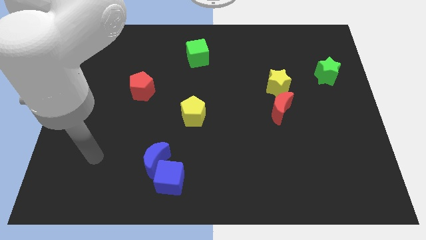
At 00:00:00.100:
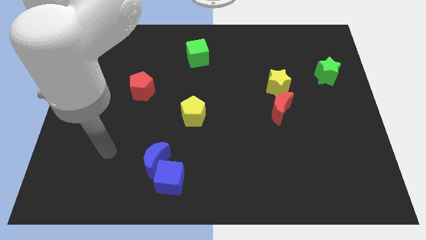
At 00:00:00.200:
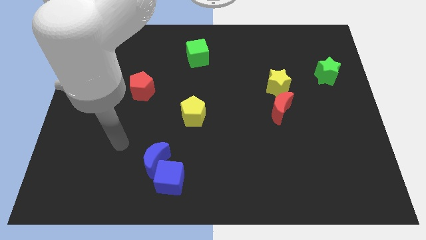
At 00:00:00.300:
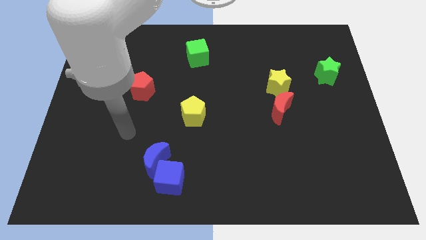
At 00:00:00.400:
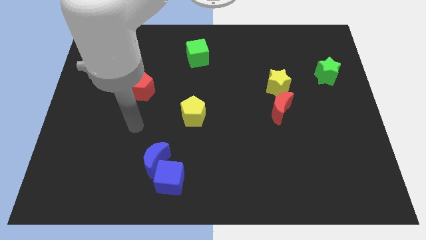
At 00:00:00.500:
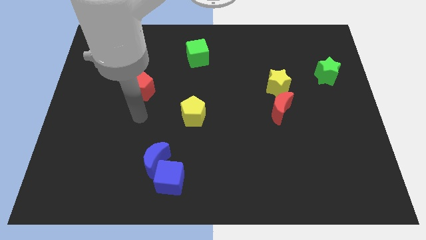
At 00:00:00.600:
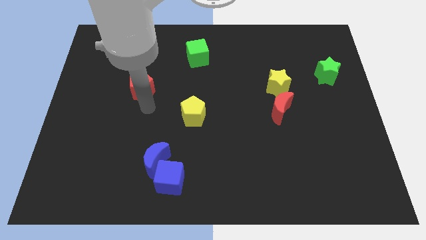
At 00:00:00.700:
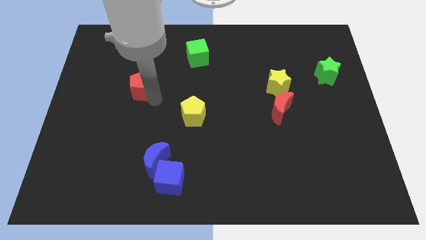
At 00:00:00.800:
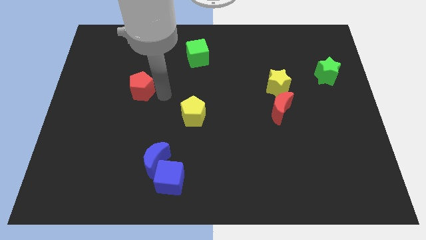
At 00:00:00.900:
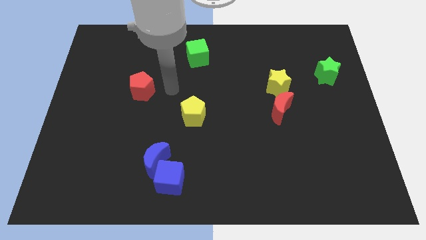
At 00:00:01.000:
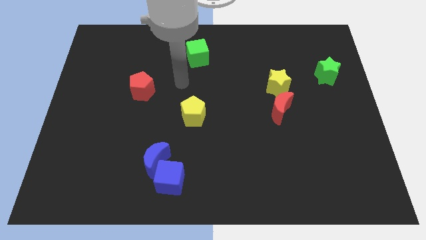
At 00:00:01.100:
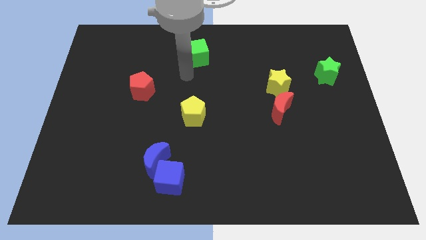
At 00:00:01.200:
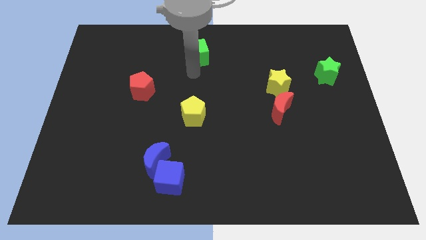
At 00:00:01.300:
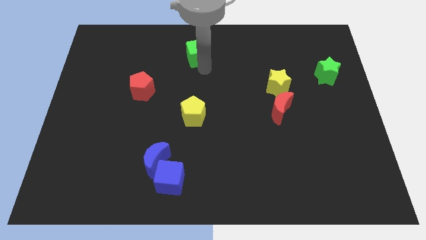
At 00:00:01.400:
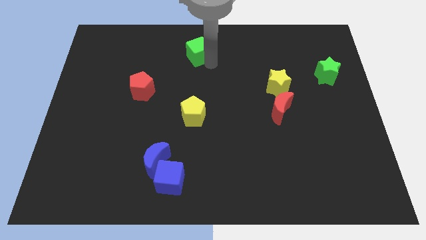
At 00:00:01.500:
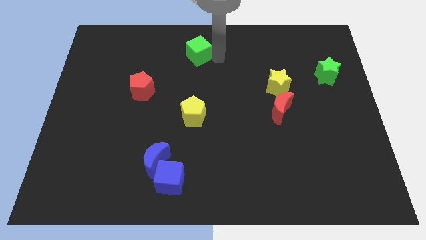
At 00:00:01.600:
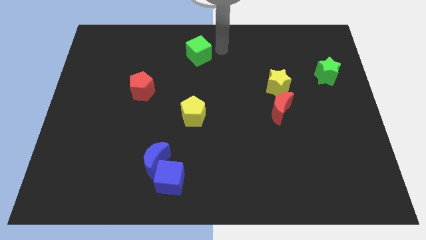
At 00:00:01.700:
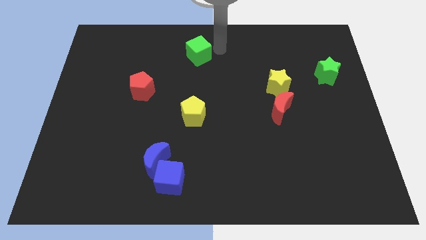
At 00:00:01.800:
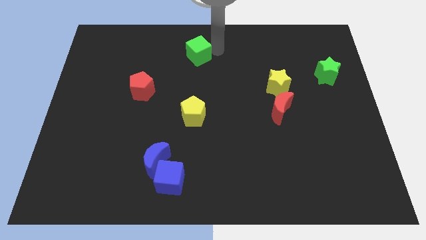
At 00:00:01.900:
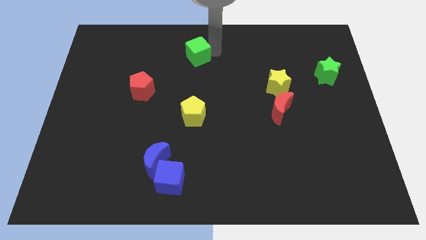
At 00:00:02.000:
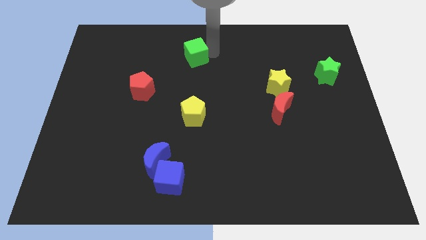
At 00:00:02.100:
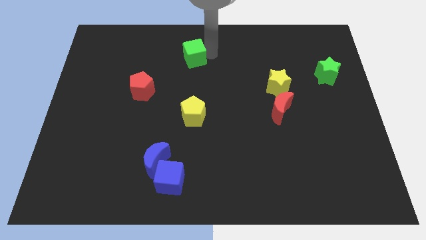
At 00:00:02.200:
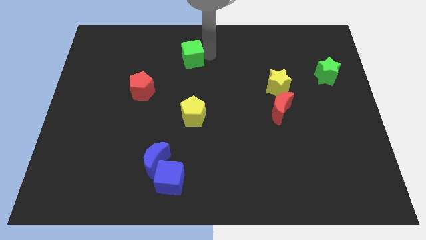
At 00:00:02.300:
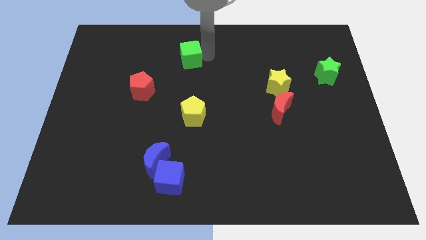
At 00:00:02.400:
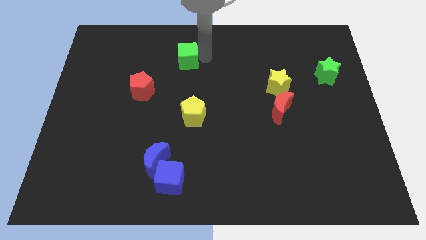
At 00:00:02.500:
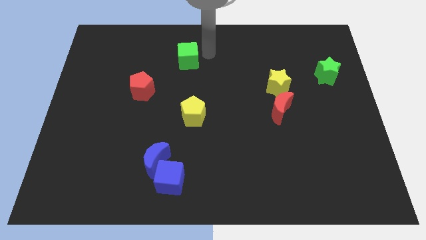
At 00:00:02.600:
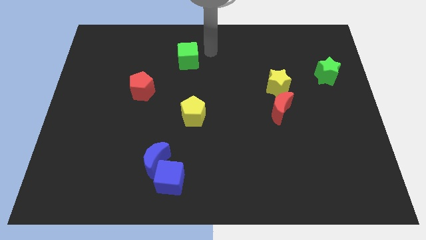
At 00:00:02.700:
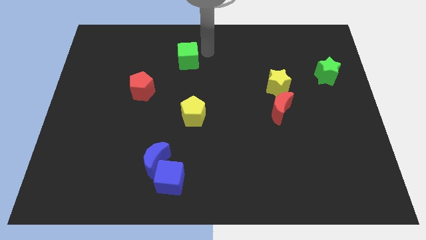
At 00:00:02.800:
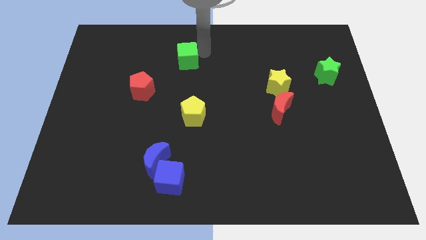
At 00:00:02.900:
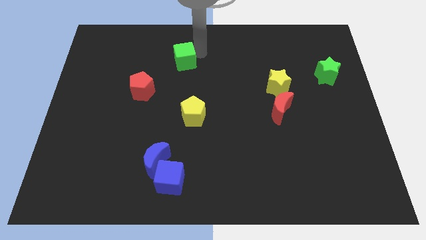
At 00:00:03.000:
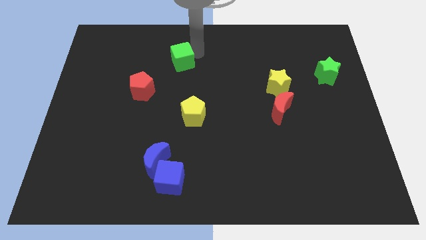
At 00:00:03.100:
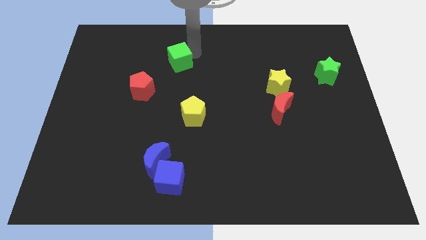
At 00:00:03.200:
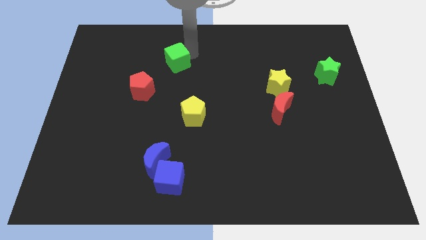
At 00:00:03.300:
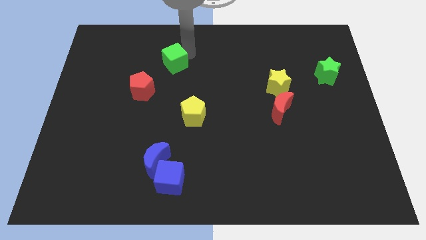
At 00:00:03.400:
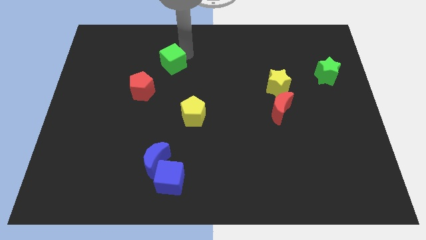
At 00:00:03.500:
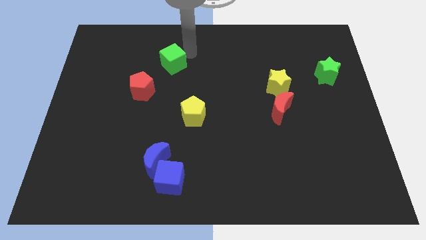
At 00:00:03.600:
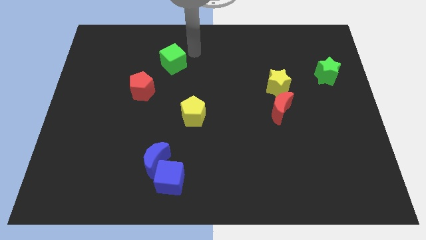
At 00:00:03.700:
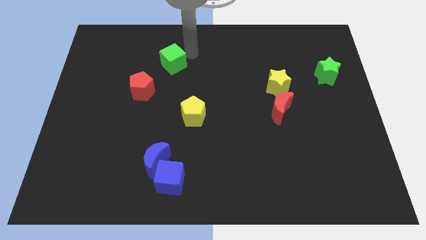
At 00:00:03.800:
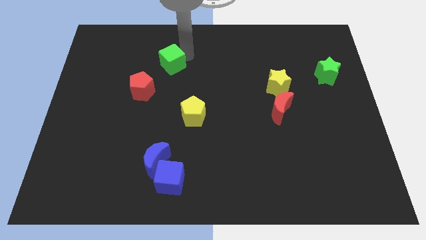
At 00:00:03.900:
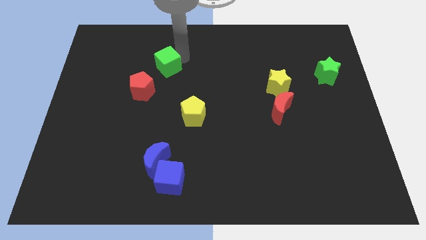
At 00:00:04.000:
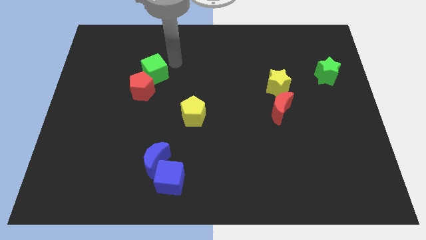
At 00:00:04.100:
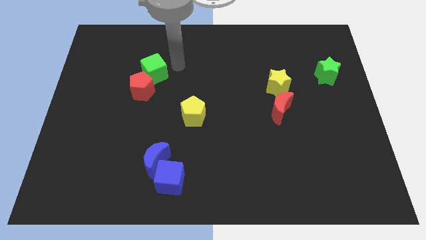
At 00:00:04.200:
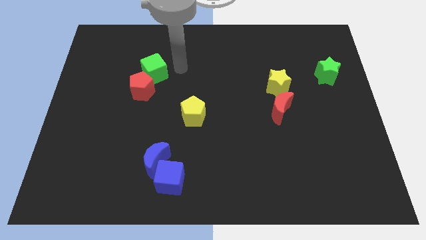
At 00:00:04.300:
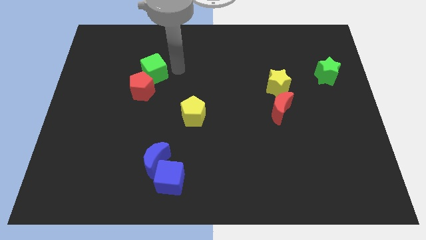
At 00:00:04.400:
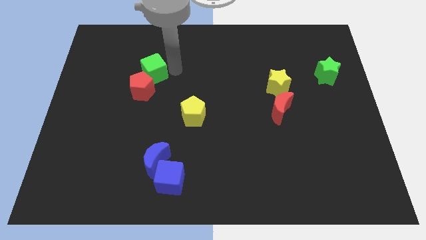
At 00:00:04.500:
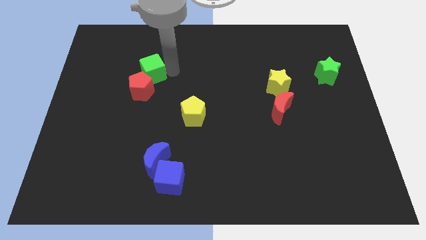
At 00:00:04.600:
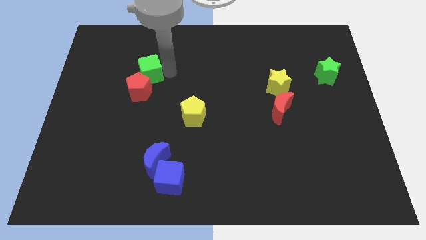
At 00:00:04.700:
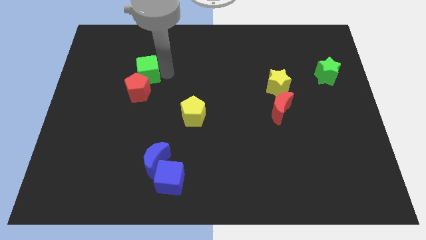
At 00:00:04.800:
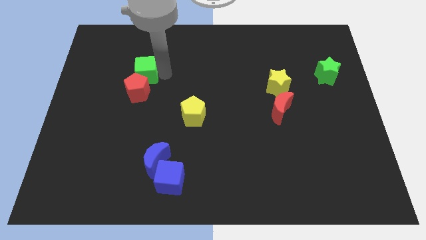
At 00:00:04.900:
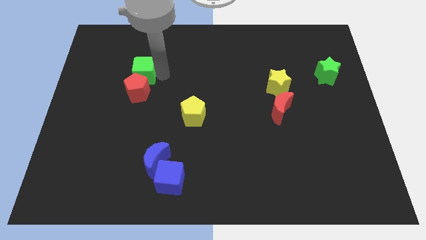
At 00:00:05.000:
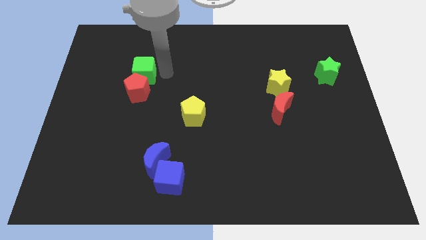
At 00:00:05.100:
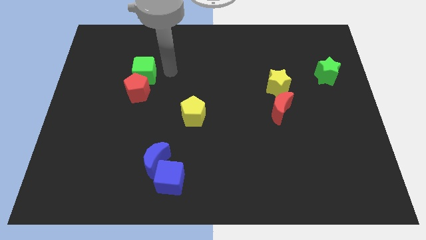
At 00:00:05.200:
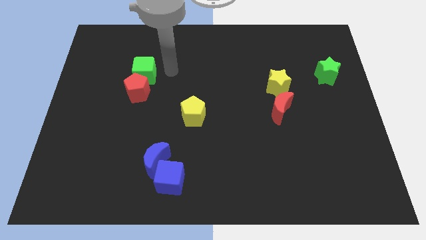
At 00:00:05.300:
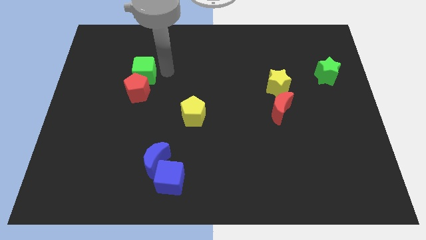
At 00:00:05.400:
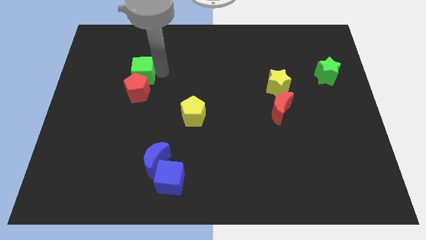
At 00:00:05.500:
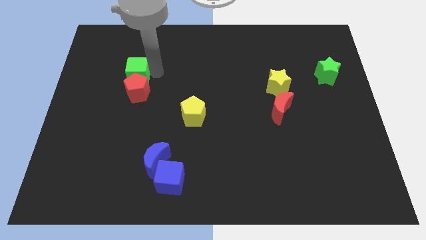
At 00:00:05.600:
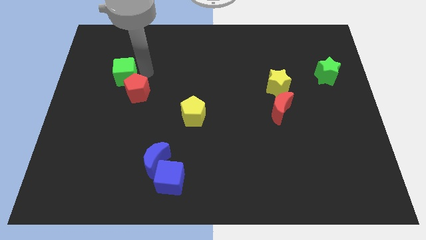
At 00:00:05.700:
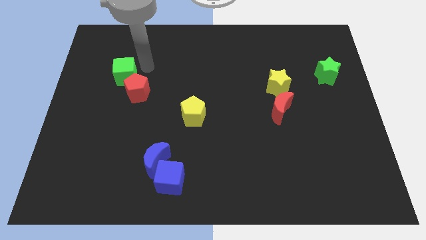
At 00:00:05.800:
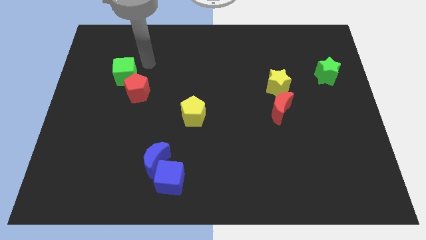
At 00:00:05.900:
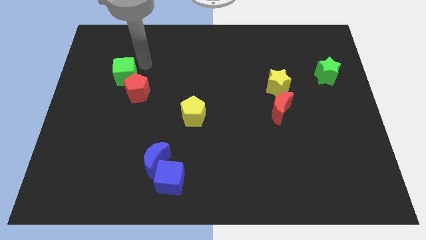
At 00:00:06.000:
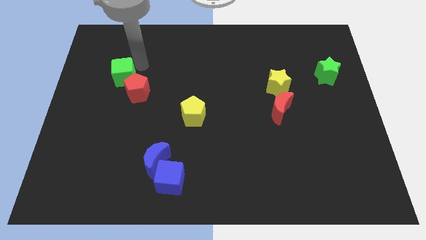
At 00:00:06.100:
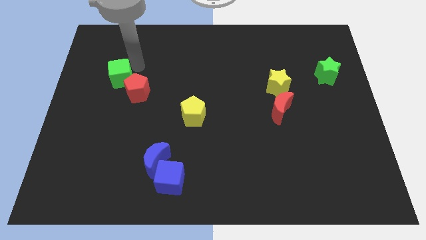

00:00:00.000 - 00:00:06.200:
push the green cube left of the red pentagon

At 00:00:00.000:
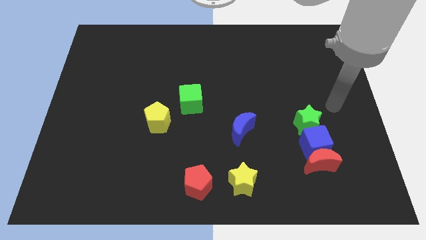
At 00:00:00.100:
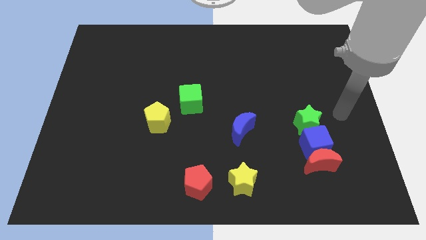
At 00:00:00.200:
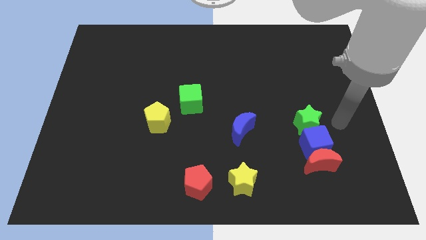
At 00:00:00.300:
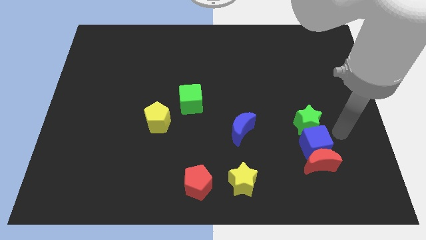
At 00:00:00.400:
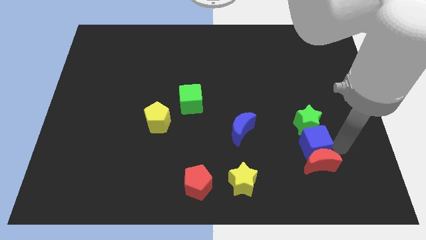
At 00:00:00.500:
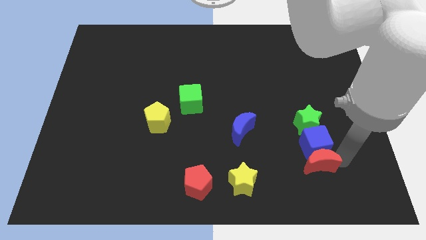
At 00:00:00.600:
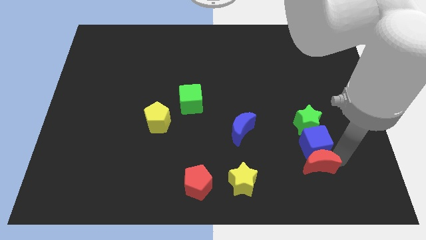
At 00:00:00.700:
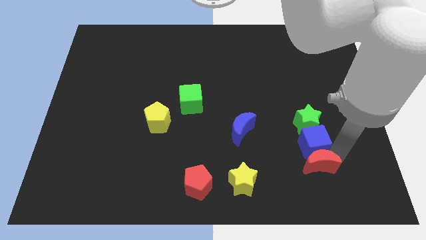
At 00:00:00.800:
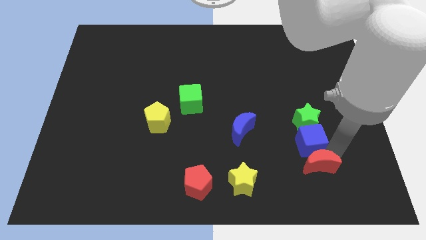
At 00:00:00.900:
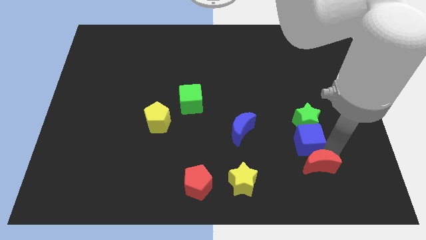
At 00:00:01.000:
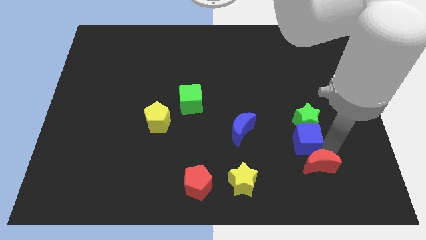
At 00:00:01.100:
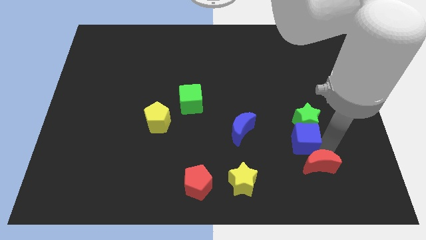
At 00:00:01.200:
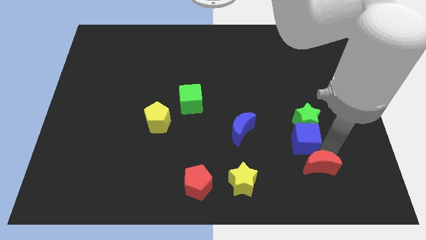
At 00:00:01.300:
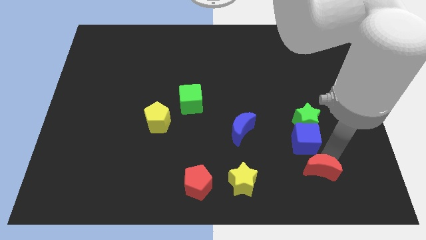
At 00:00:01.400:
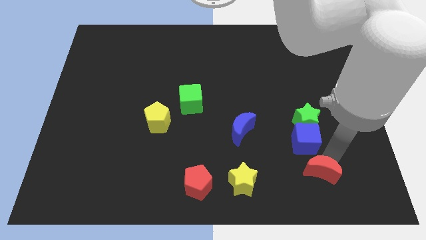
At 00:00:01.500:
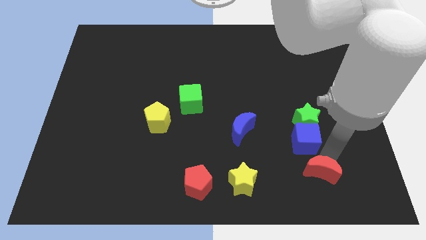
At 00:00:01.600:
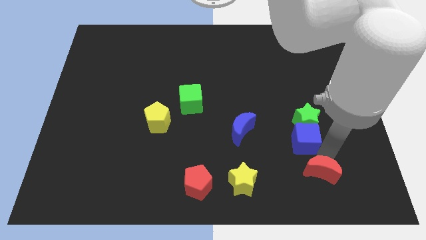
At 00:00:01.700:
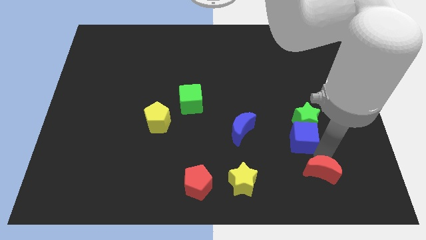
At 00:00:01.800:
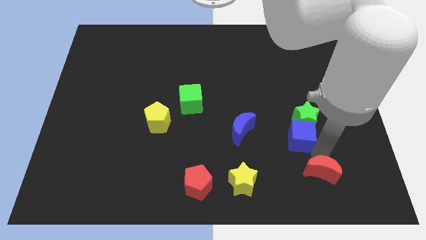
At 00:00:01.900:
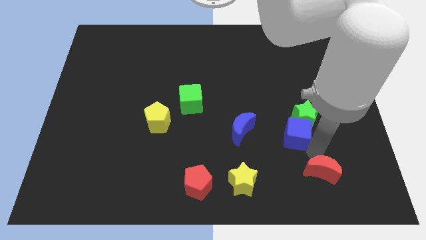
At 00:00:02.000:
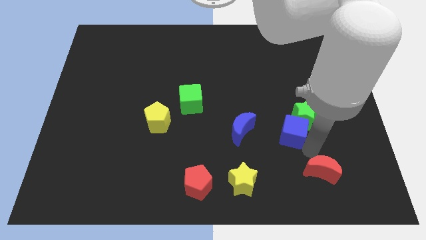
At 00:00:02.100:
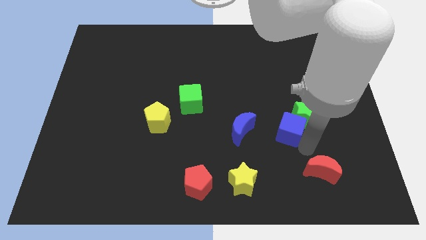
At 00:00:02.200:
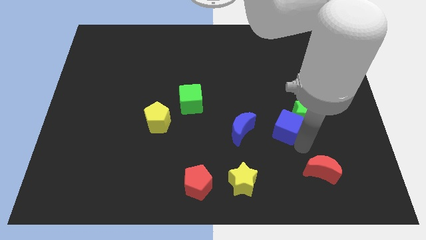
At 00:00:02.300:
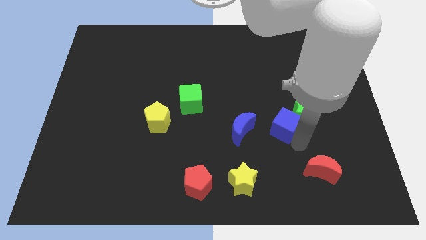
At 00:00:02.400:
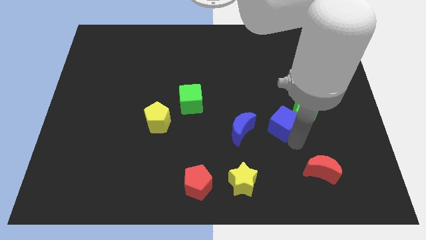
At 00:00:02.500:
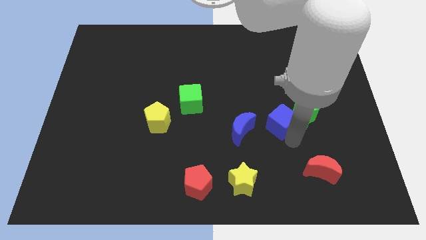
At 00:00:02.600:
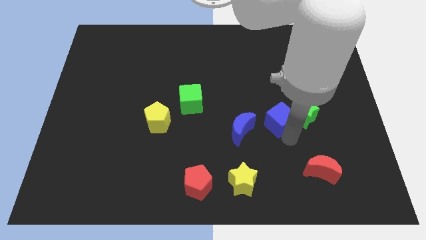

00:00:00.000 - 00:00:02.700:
slide the blue cube to the top right side of the blue moon
